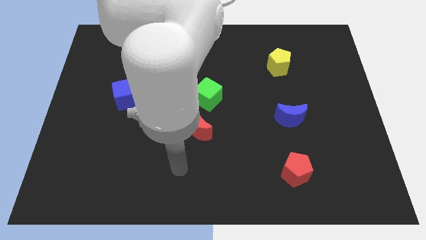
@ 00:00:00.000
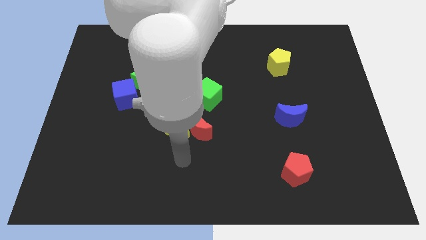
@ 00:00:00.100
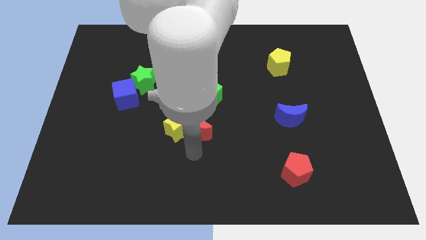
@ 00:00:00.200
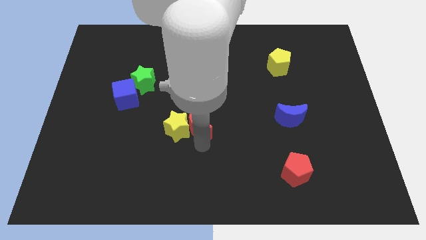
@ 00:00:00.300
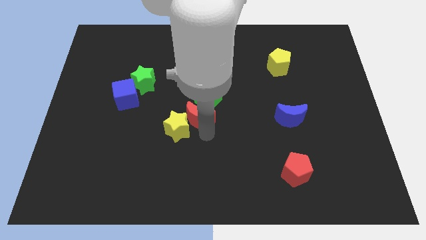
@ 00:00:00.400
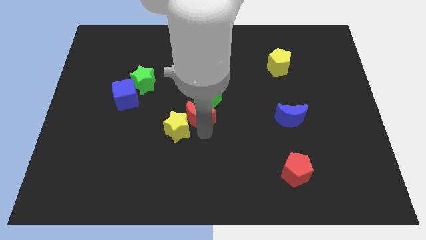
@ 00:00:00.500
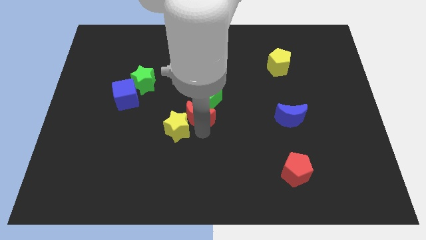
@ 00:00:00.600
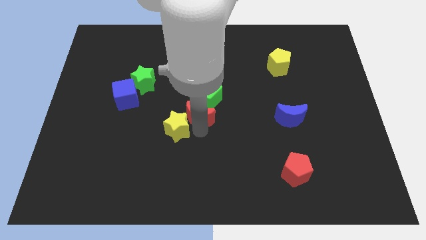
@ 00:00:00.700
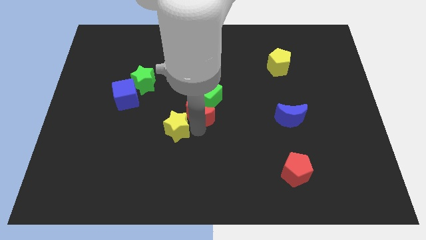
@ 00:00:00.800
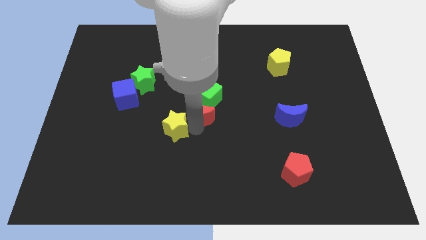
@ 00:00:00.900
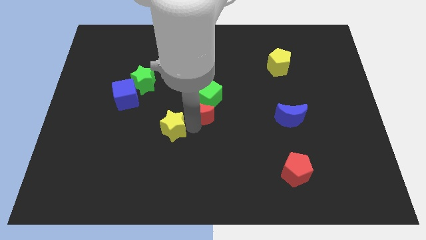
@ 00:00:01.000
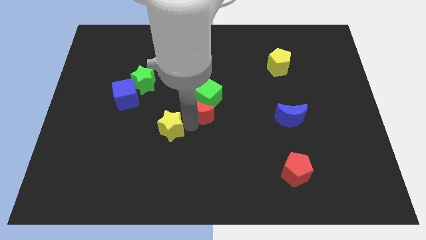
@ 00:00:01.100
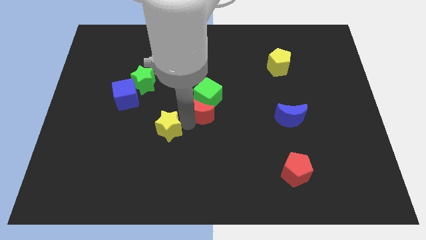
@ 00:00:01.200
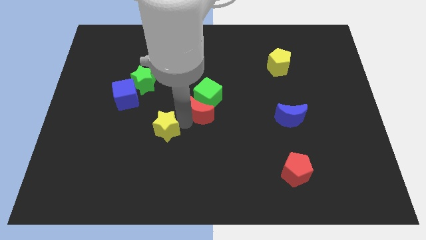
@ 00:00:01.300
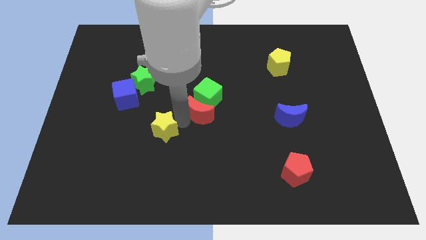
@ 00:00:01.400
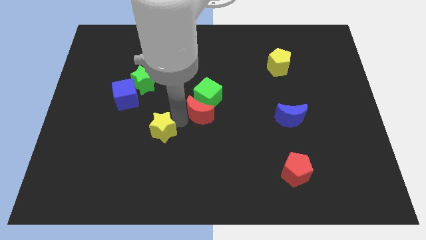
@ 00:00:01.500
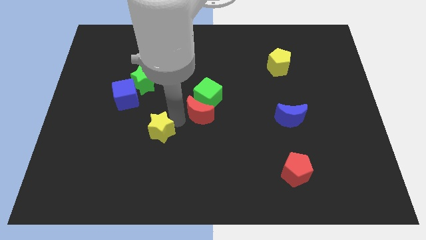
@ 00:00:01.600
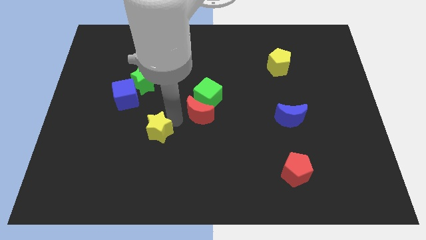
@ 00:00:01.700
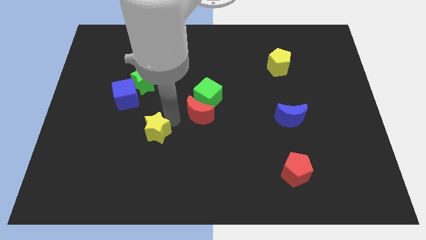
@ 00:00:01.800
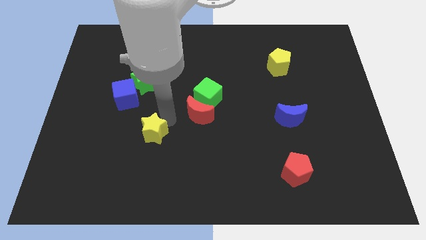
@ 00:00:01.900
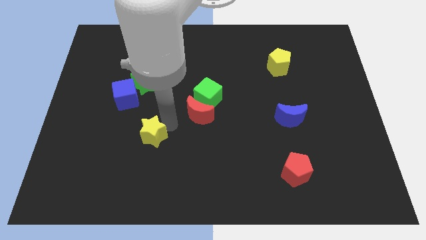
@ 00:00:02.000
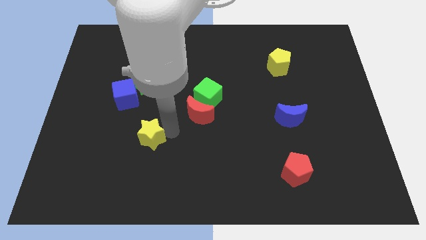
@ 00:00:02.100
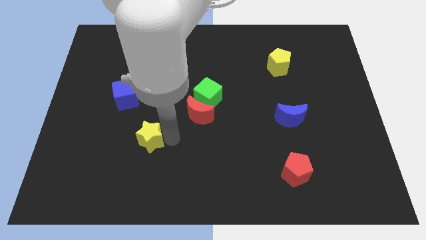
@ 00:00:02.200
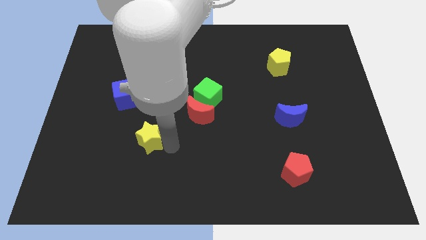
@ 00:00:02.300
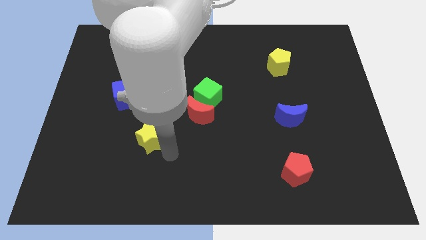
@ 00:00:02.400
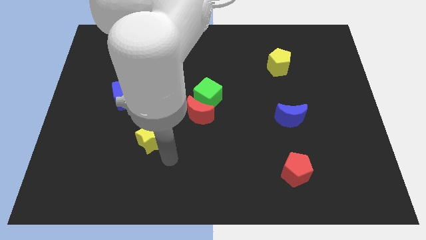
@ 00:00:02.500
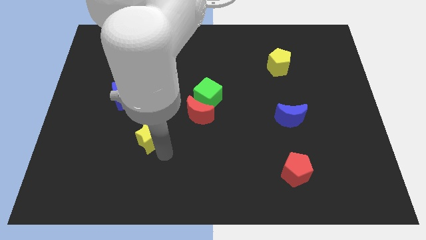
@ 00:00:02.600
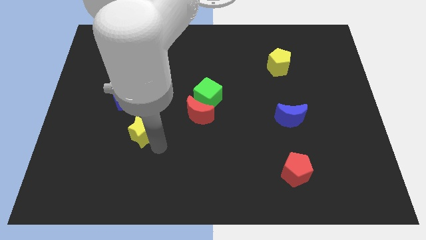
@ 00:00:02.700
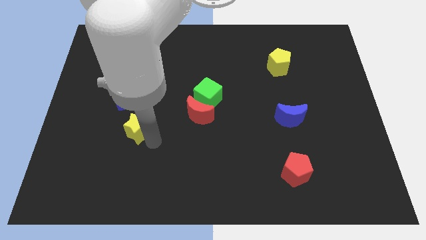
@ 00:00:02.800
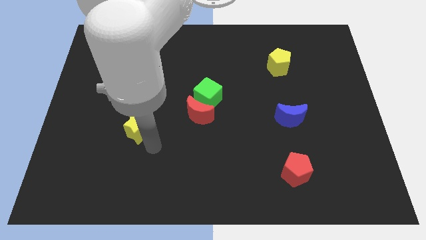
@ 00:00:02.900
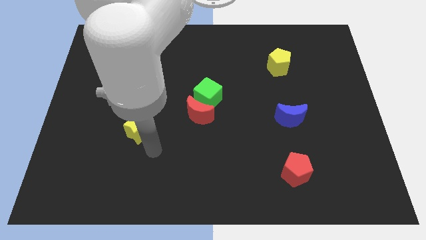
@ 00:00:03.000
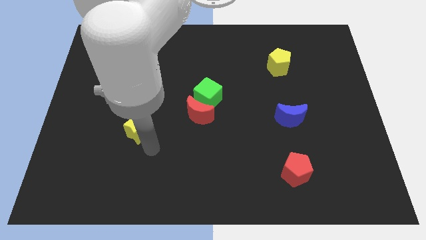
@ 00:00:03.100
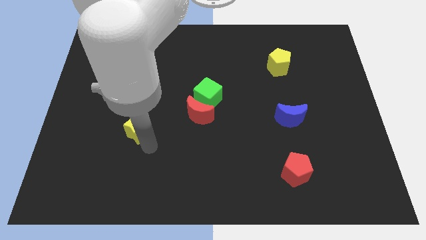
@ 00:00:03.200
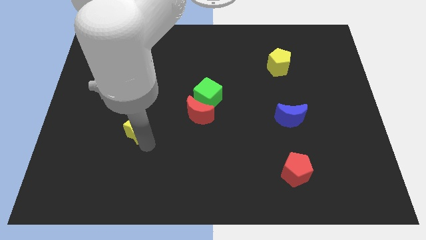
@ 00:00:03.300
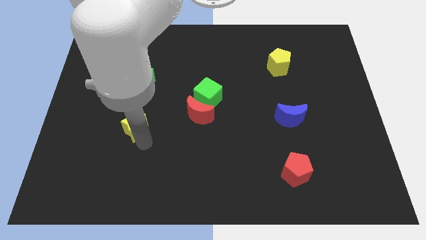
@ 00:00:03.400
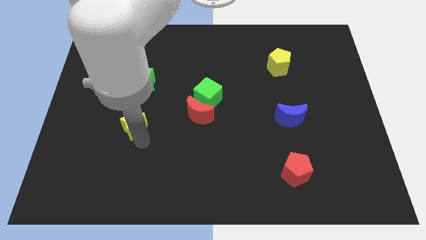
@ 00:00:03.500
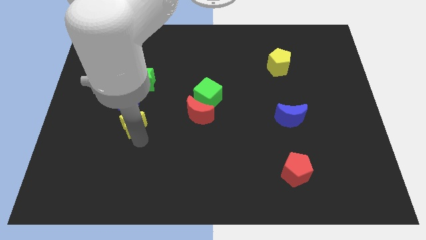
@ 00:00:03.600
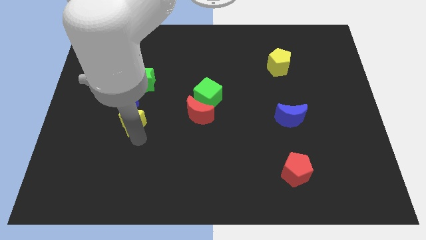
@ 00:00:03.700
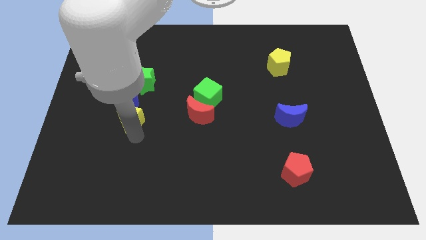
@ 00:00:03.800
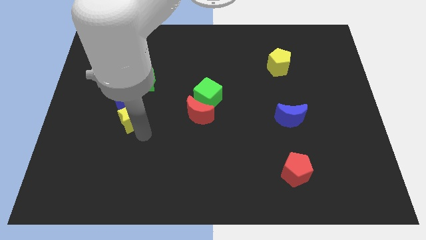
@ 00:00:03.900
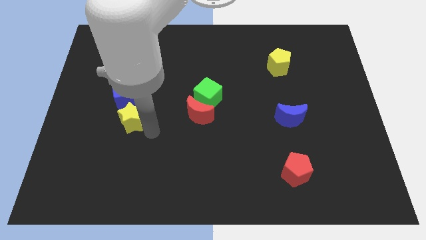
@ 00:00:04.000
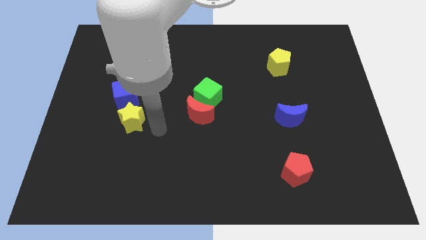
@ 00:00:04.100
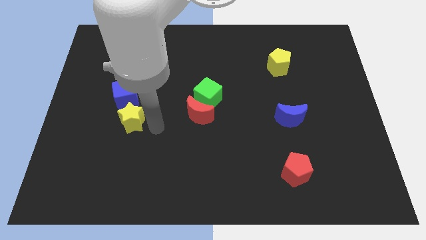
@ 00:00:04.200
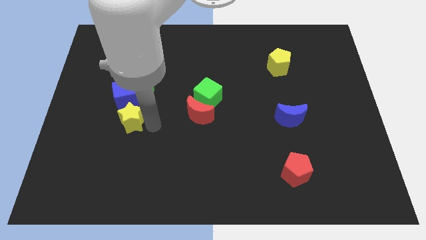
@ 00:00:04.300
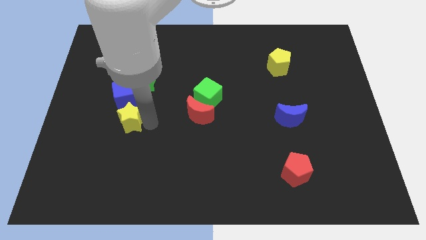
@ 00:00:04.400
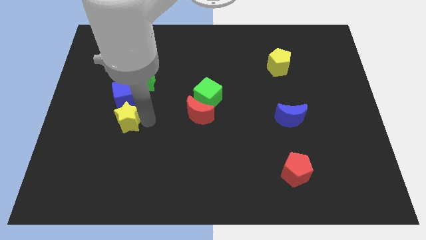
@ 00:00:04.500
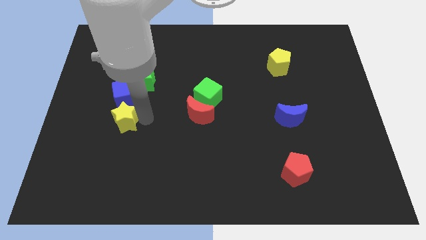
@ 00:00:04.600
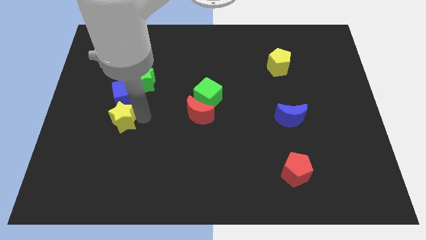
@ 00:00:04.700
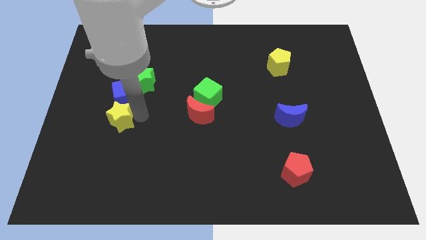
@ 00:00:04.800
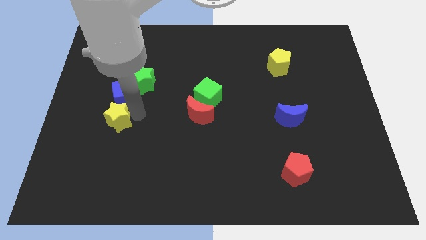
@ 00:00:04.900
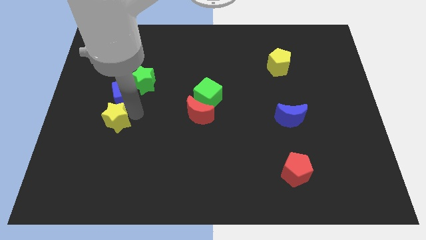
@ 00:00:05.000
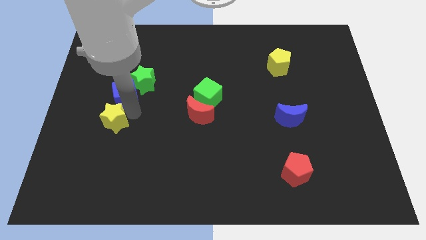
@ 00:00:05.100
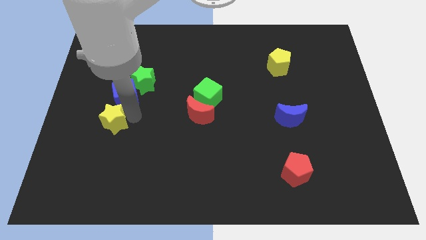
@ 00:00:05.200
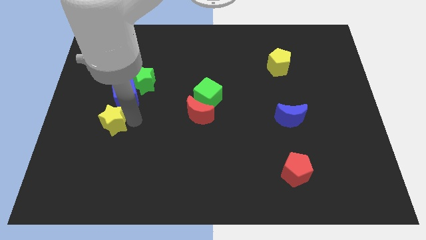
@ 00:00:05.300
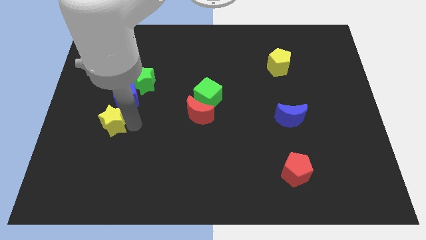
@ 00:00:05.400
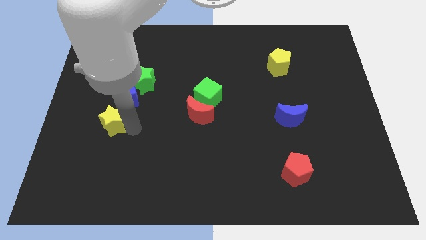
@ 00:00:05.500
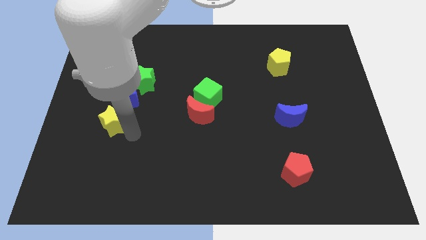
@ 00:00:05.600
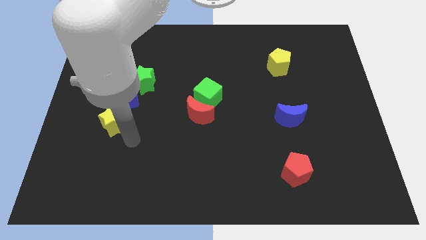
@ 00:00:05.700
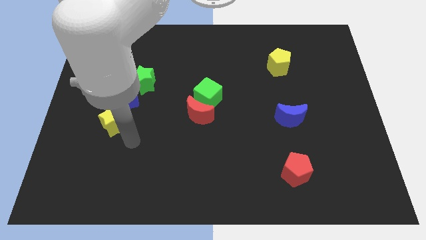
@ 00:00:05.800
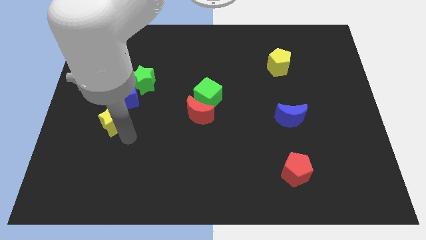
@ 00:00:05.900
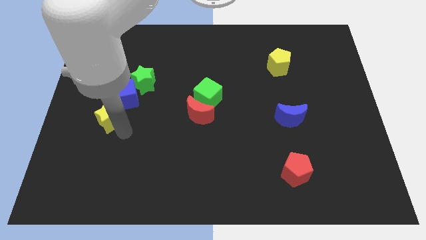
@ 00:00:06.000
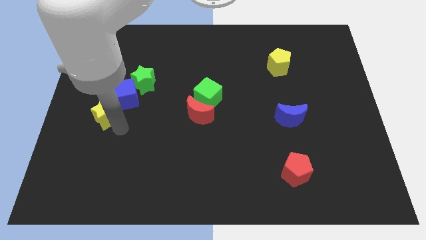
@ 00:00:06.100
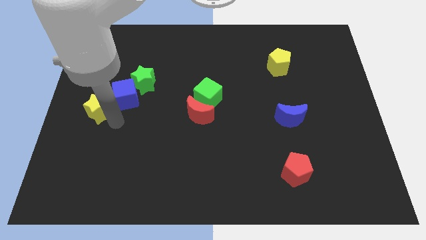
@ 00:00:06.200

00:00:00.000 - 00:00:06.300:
put the yellow star to the center left

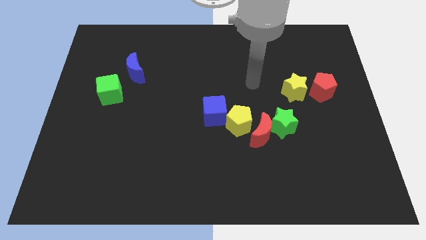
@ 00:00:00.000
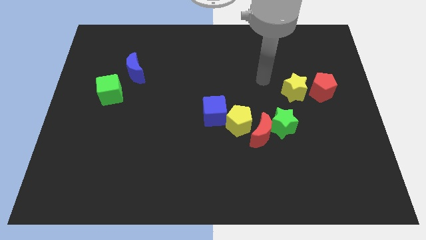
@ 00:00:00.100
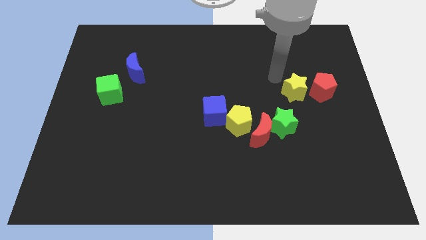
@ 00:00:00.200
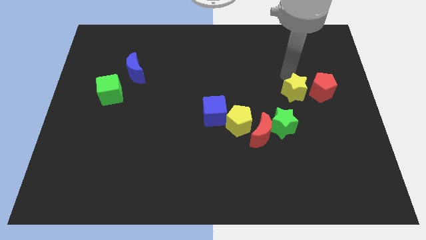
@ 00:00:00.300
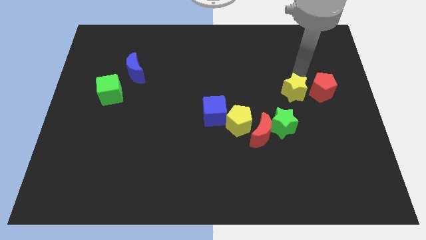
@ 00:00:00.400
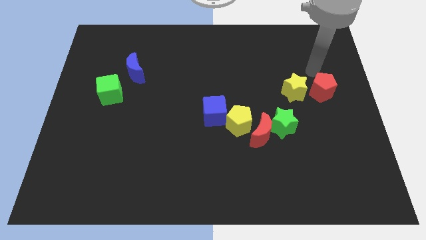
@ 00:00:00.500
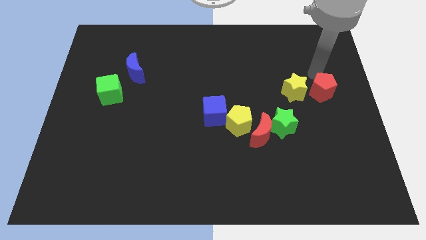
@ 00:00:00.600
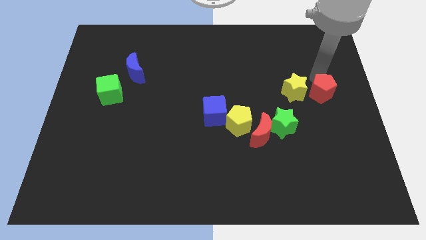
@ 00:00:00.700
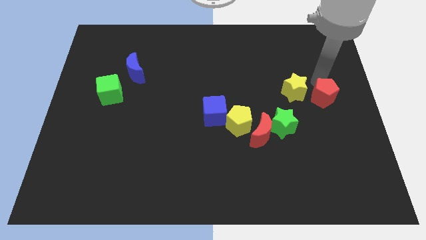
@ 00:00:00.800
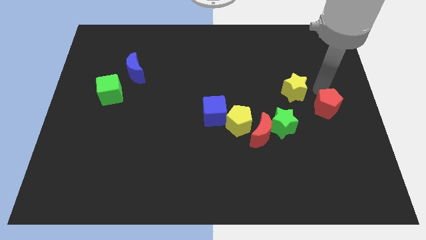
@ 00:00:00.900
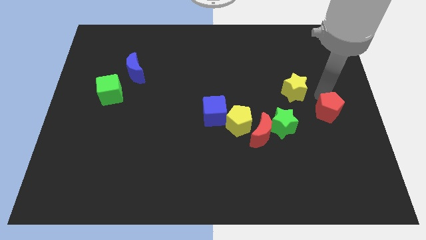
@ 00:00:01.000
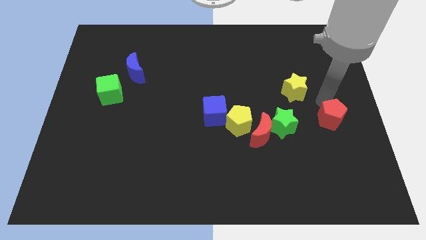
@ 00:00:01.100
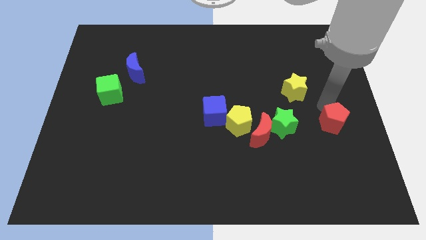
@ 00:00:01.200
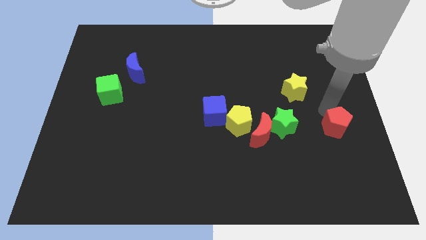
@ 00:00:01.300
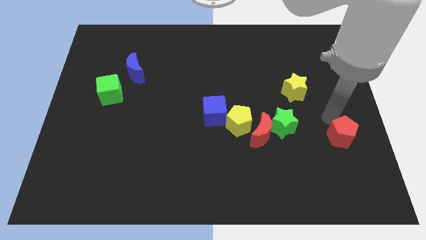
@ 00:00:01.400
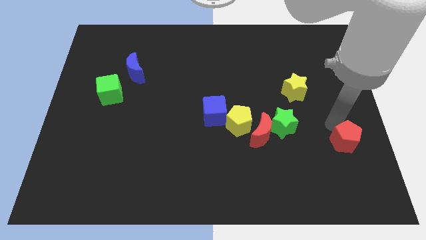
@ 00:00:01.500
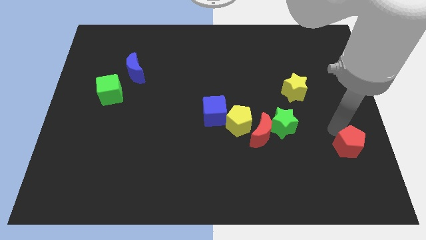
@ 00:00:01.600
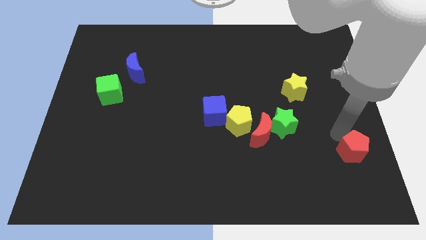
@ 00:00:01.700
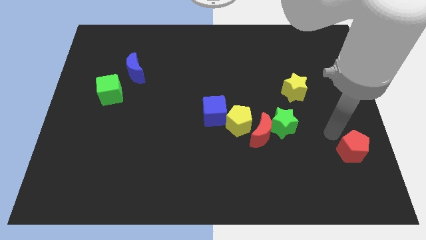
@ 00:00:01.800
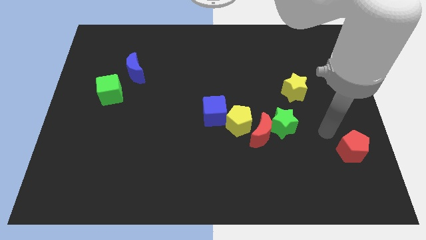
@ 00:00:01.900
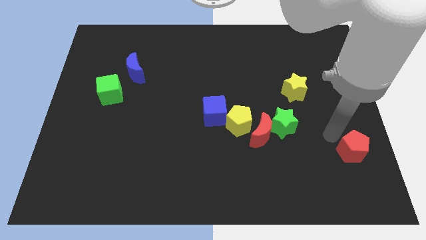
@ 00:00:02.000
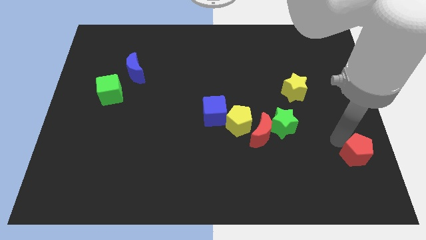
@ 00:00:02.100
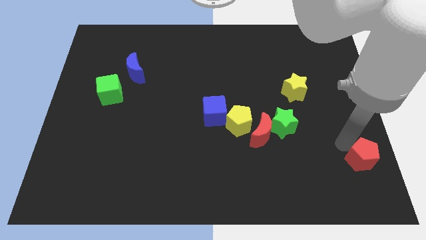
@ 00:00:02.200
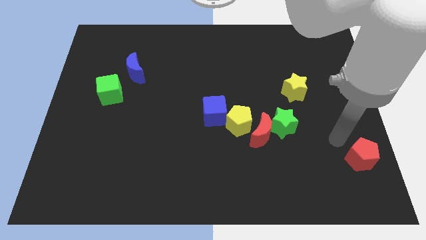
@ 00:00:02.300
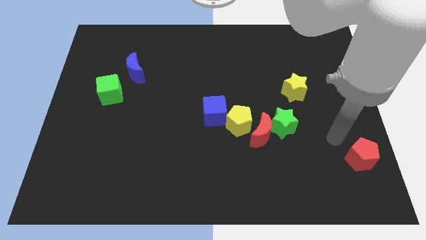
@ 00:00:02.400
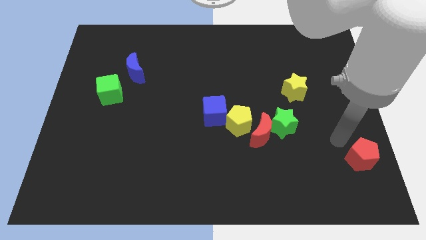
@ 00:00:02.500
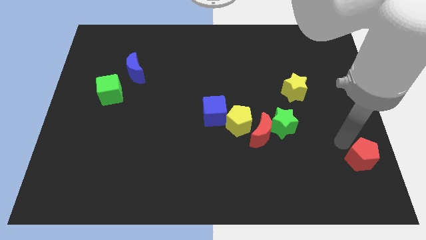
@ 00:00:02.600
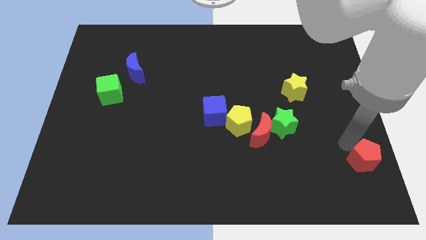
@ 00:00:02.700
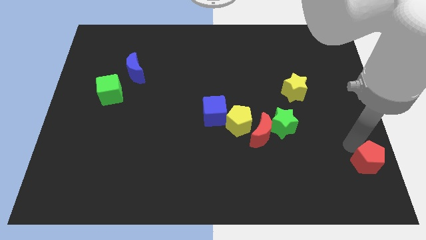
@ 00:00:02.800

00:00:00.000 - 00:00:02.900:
slide the red pentagon to the bottom right of the board
